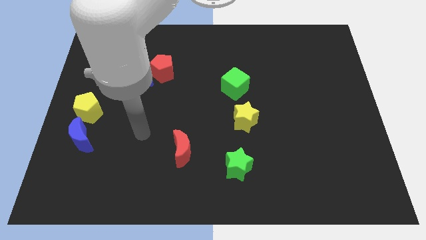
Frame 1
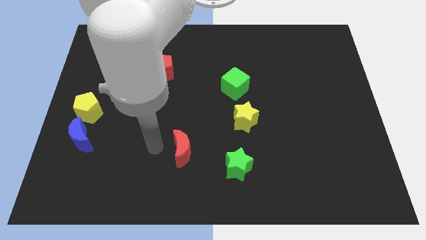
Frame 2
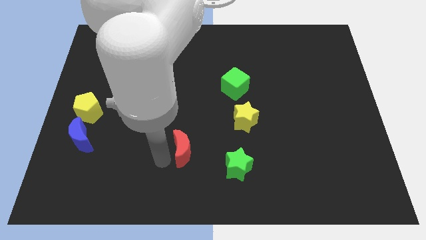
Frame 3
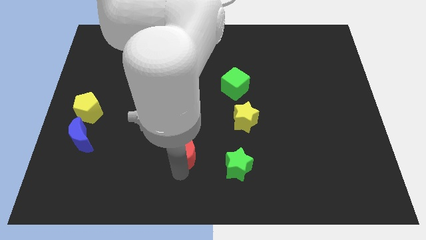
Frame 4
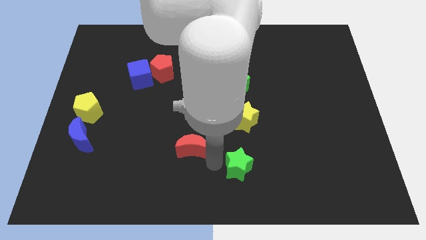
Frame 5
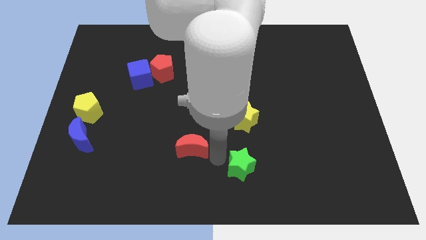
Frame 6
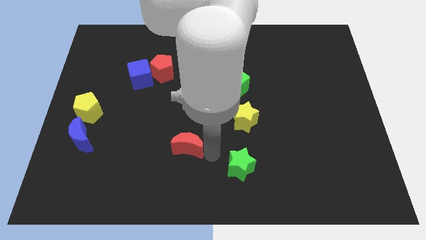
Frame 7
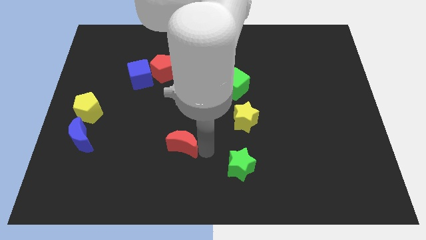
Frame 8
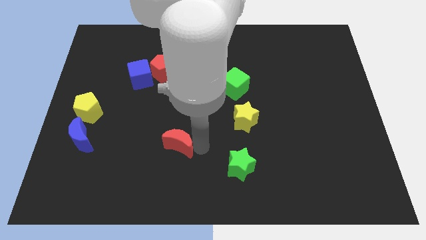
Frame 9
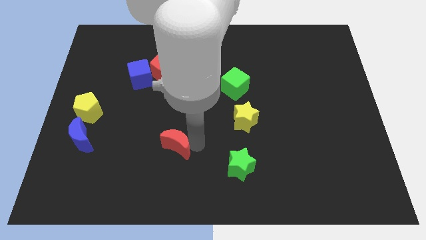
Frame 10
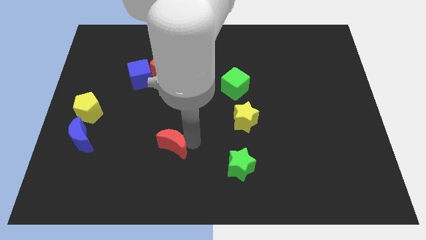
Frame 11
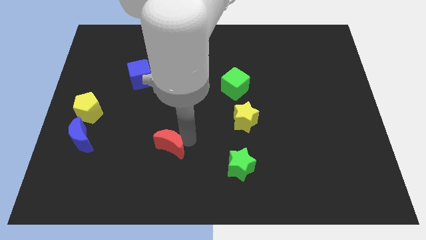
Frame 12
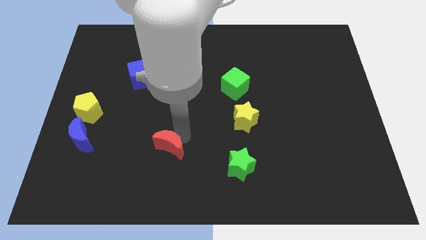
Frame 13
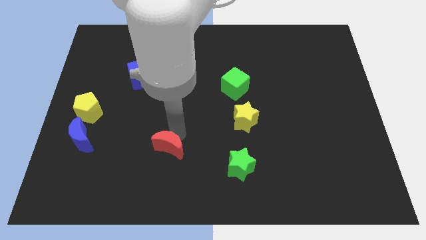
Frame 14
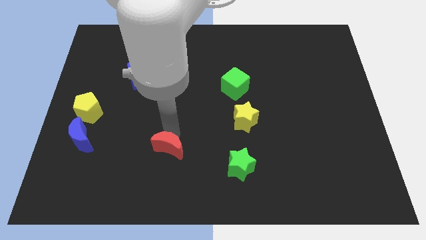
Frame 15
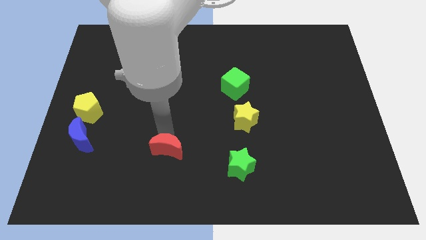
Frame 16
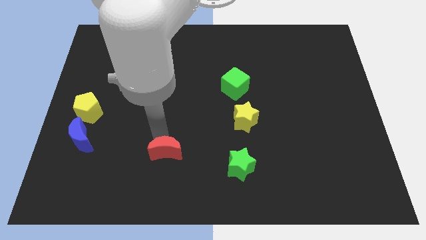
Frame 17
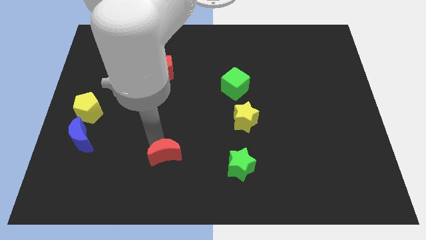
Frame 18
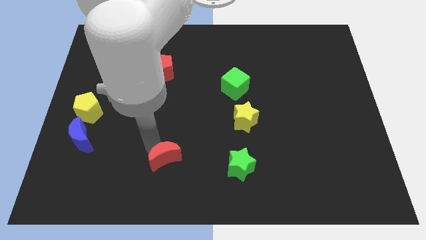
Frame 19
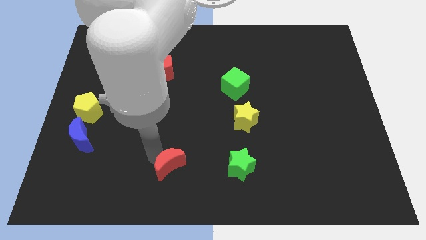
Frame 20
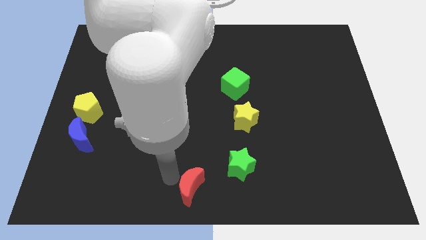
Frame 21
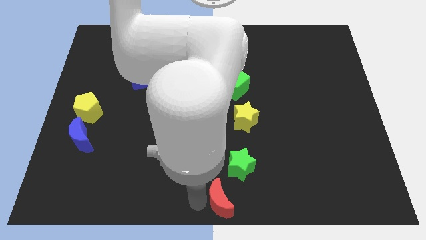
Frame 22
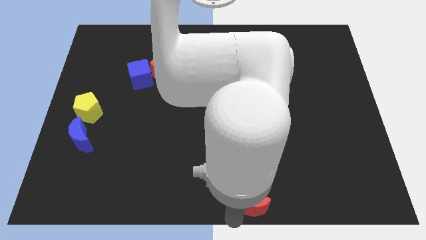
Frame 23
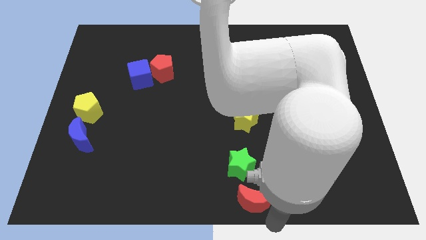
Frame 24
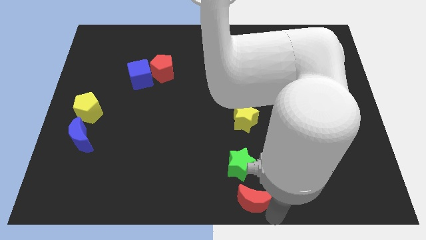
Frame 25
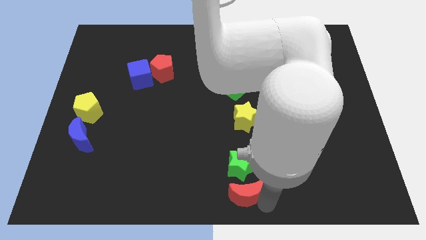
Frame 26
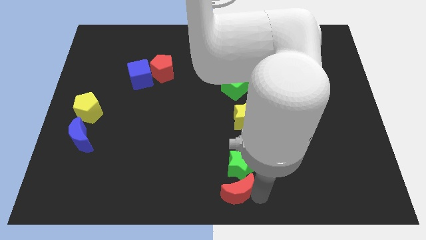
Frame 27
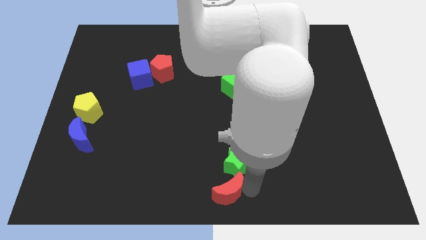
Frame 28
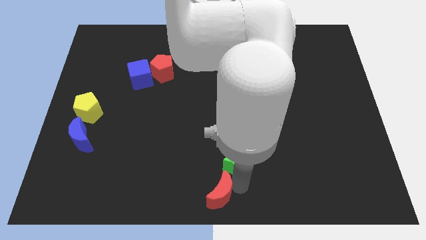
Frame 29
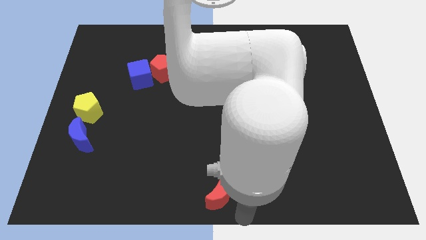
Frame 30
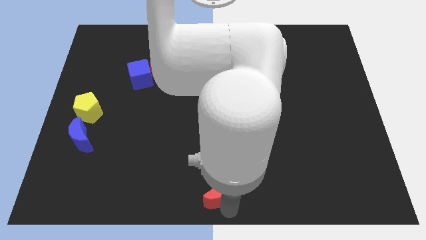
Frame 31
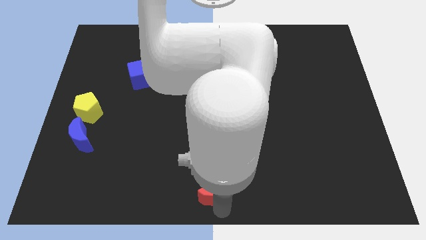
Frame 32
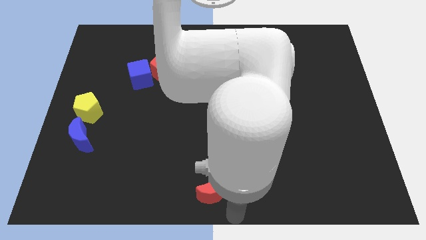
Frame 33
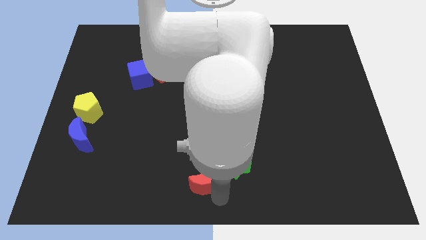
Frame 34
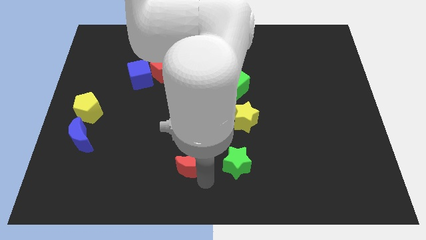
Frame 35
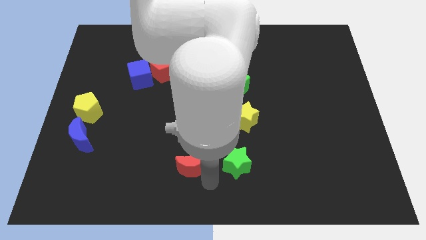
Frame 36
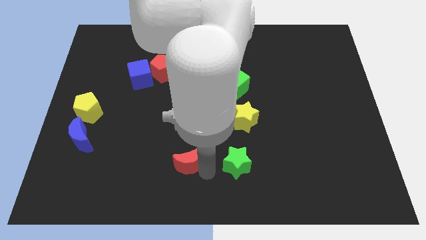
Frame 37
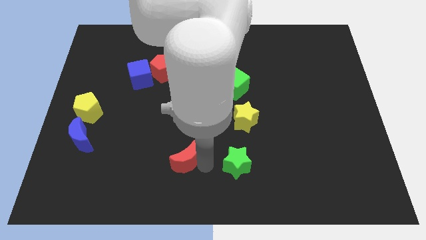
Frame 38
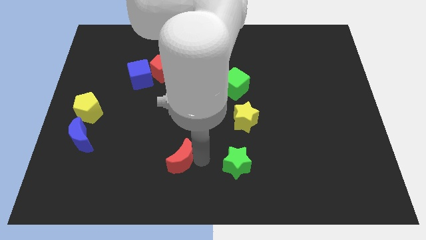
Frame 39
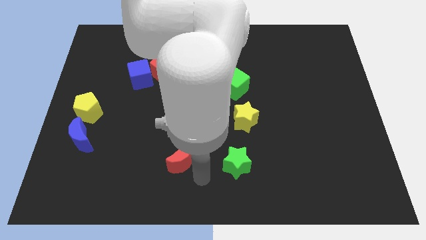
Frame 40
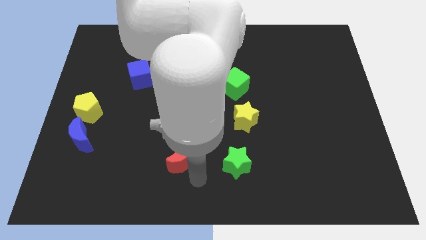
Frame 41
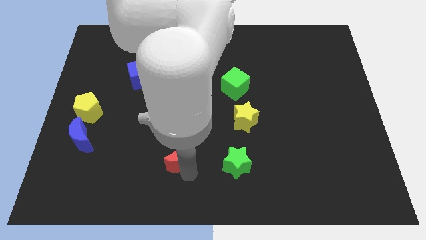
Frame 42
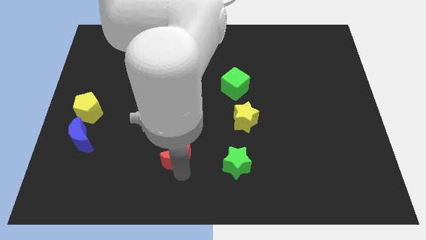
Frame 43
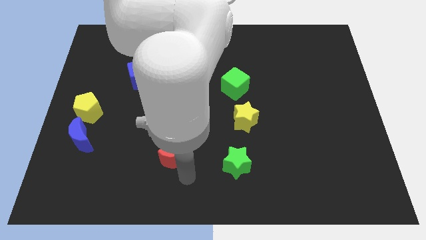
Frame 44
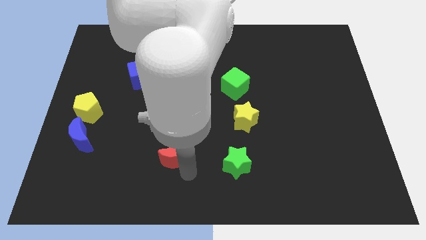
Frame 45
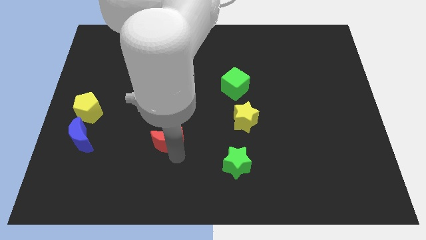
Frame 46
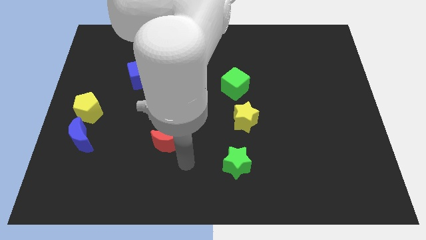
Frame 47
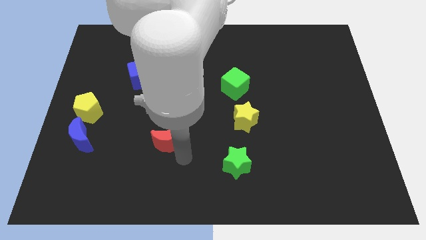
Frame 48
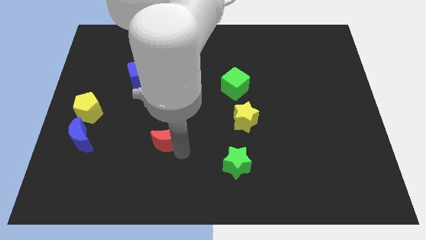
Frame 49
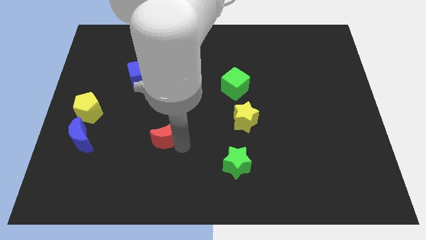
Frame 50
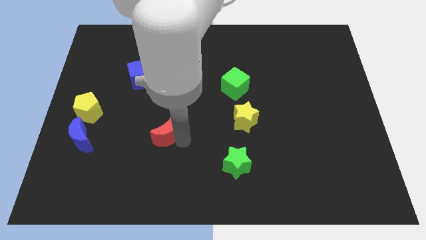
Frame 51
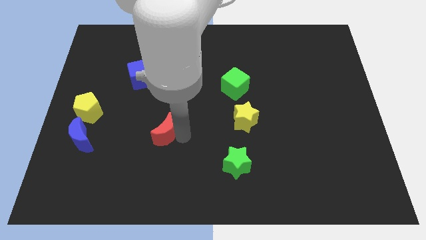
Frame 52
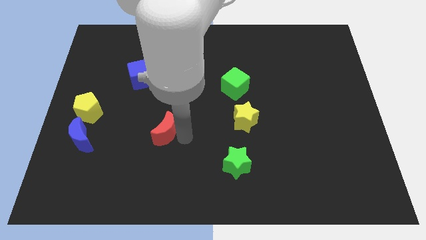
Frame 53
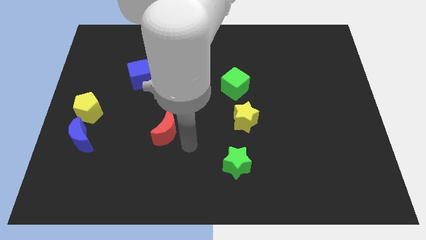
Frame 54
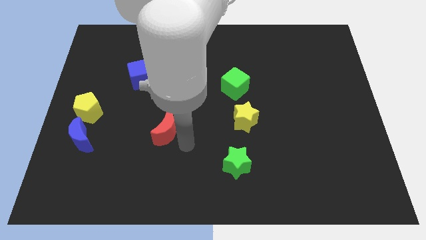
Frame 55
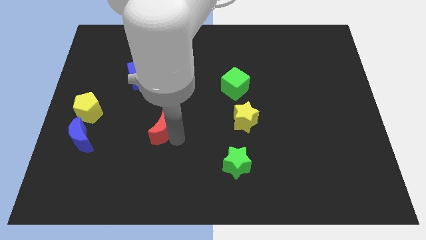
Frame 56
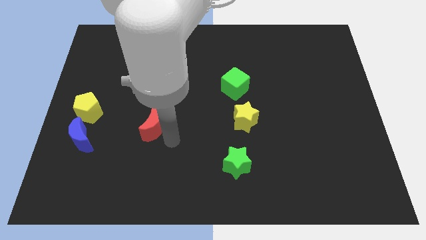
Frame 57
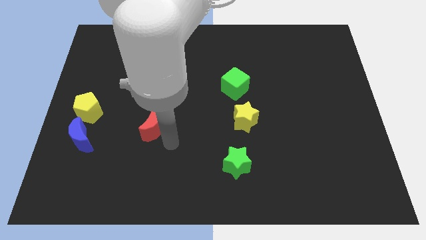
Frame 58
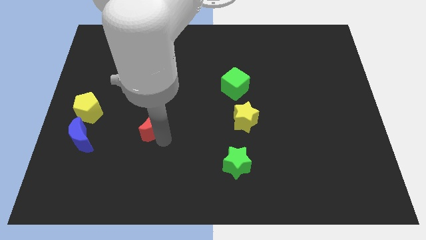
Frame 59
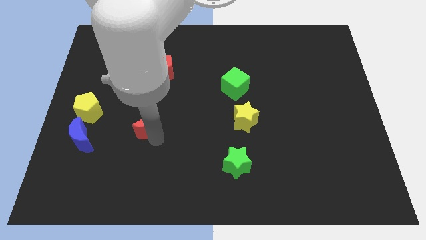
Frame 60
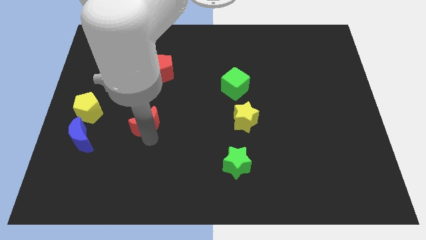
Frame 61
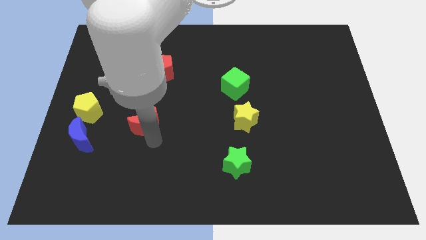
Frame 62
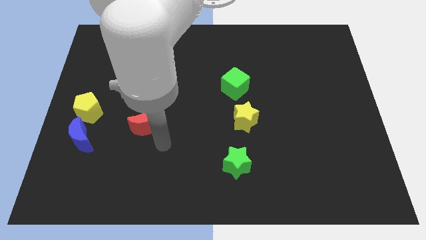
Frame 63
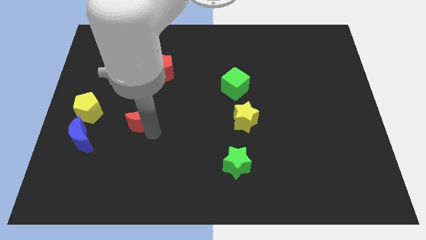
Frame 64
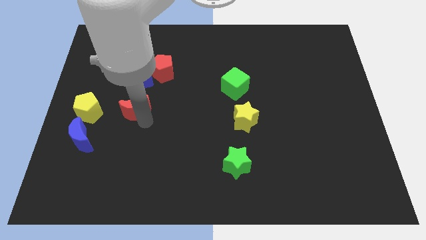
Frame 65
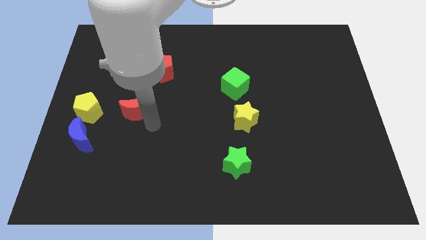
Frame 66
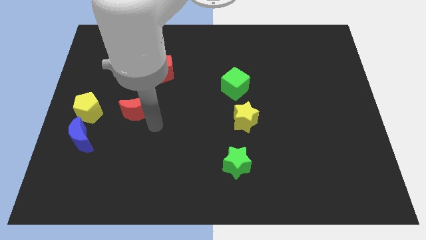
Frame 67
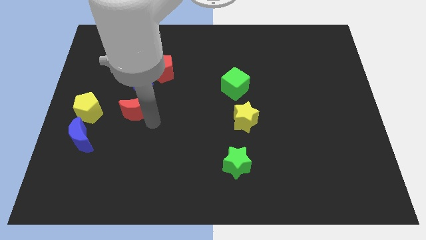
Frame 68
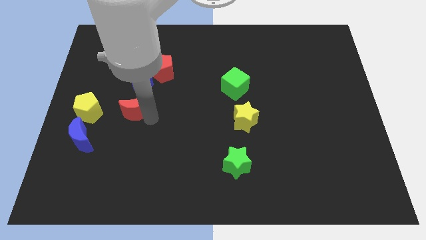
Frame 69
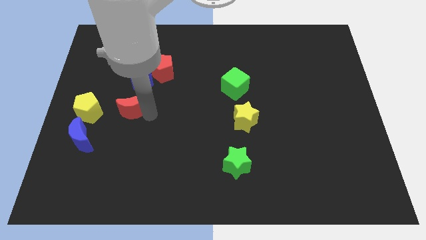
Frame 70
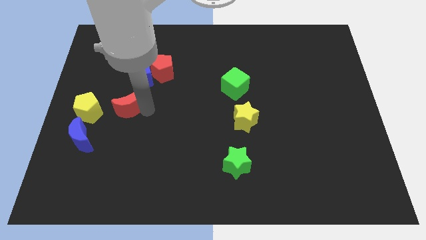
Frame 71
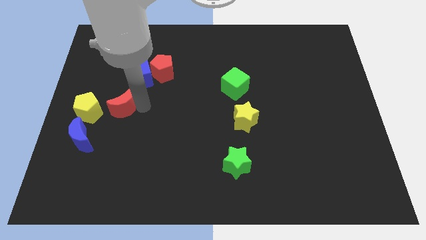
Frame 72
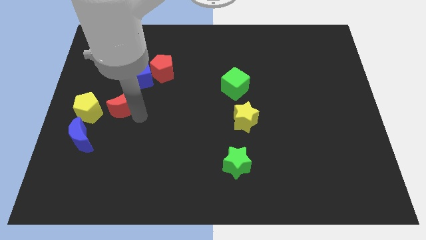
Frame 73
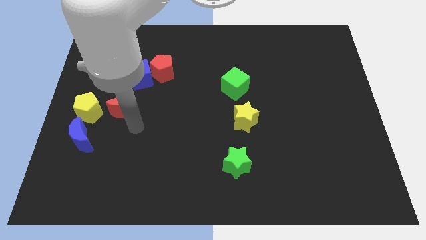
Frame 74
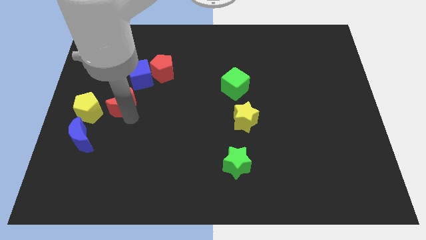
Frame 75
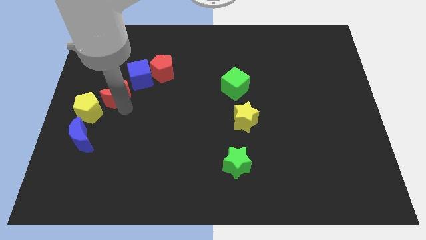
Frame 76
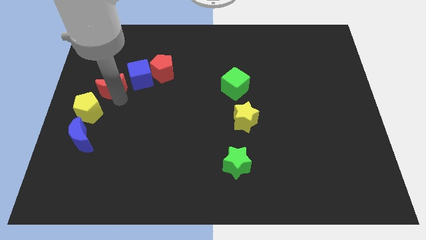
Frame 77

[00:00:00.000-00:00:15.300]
push the red moon above the yellow pentagon
